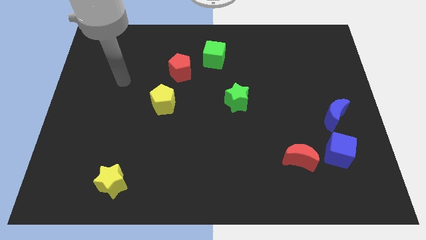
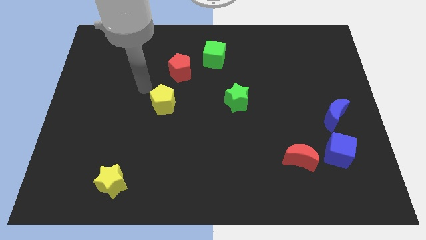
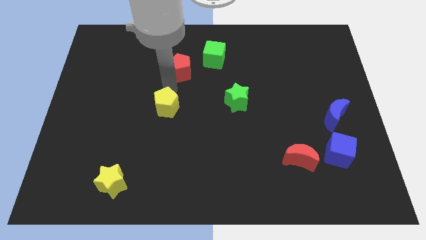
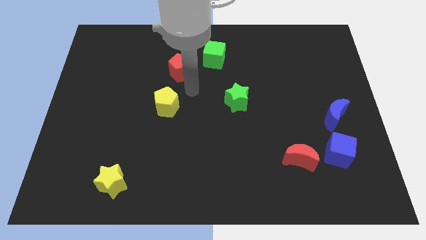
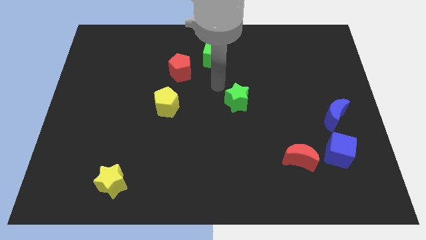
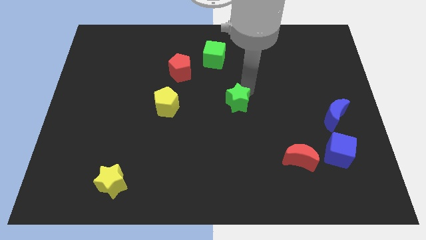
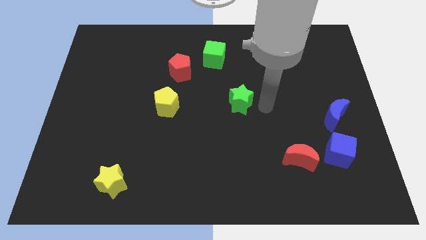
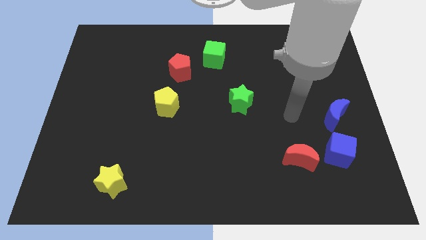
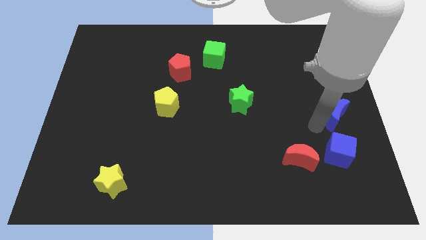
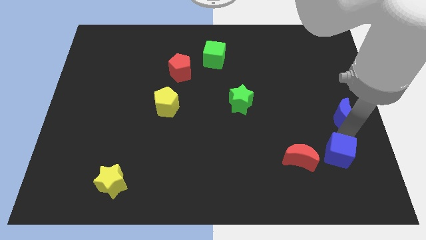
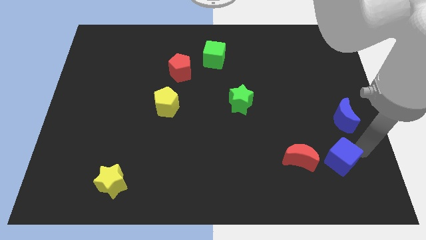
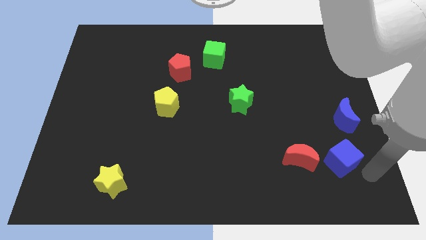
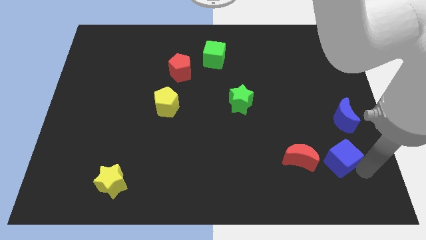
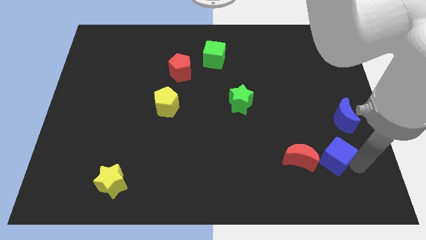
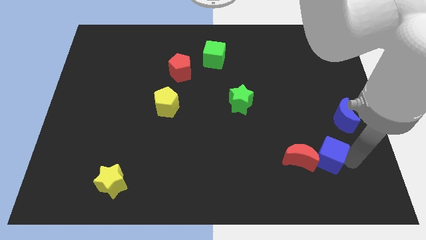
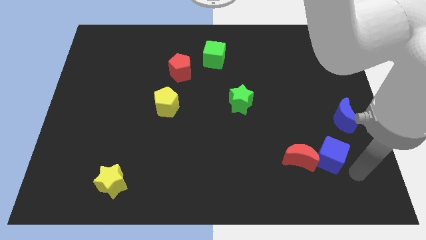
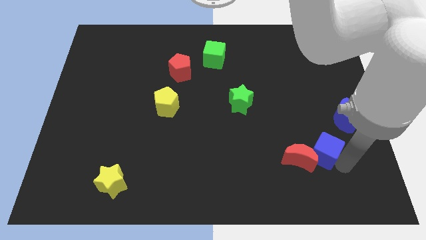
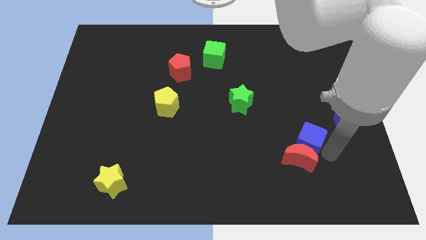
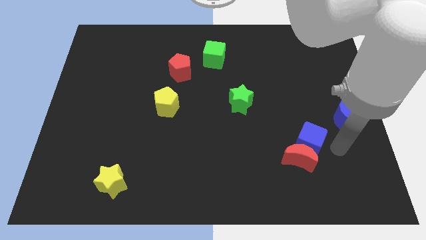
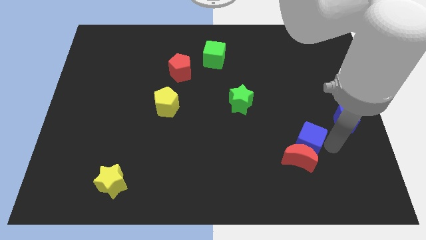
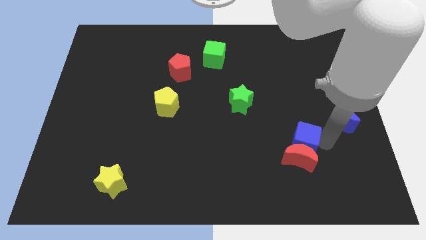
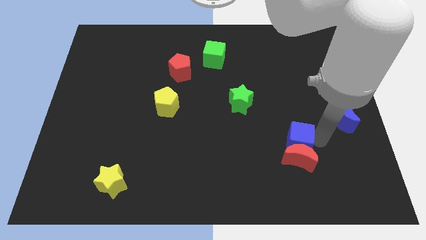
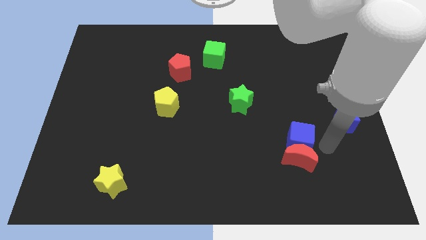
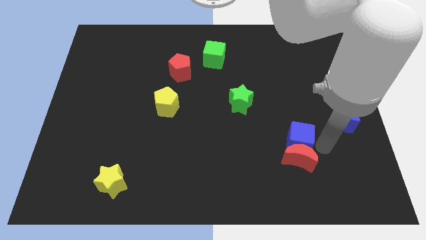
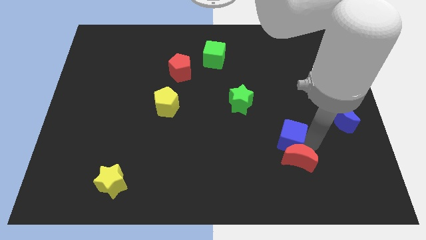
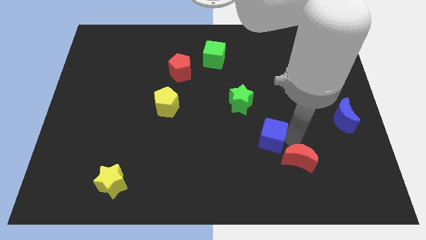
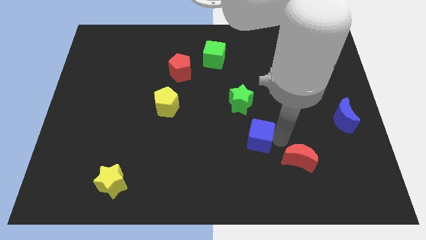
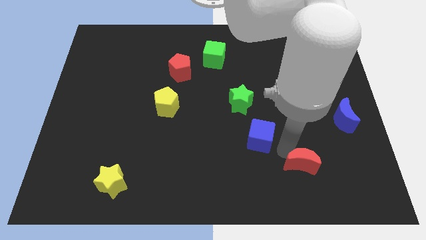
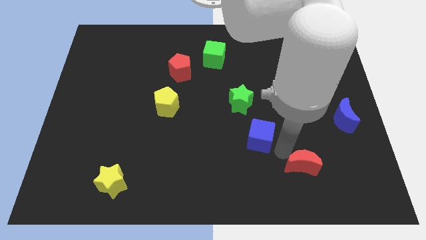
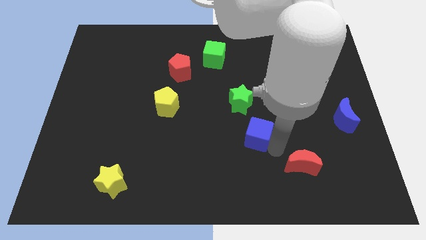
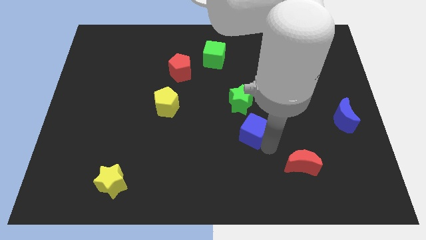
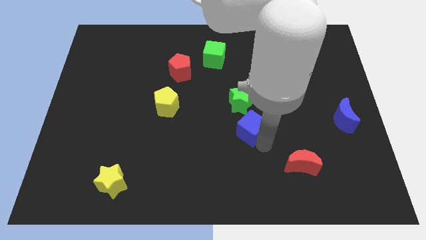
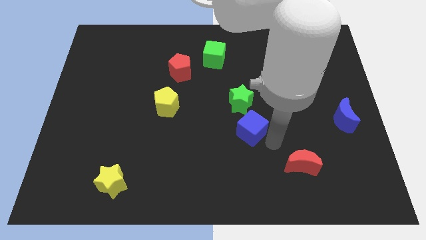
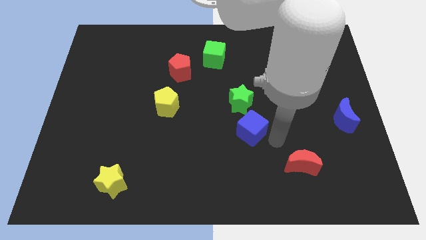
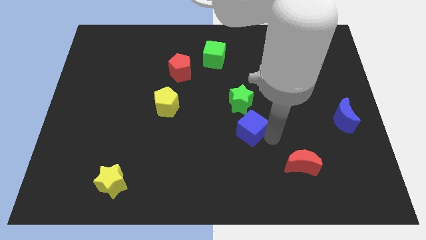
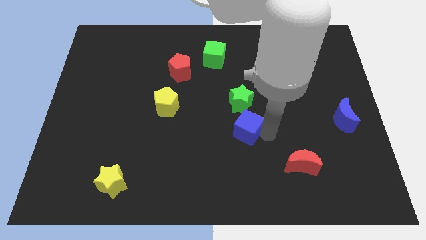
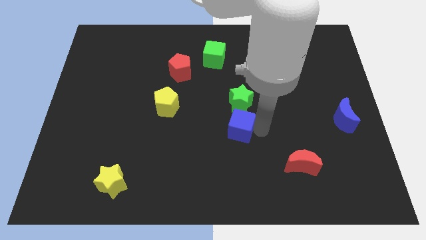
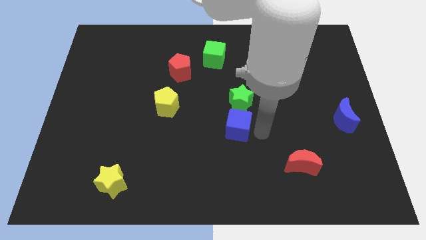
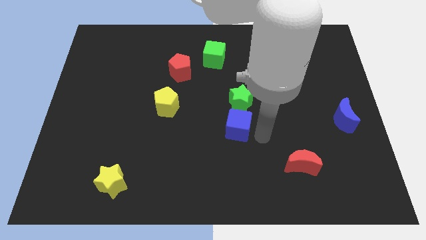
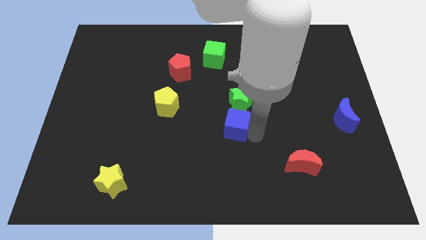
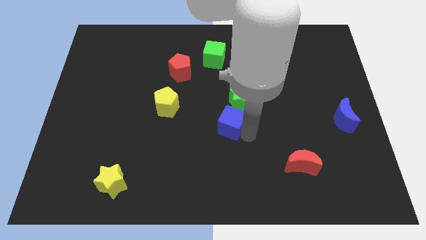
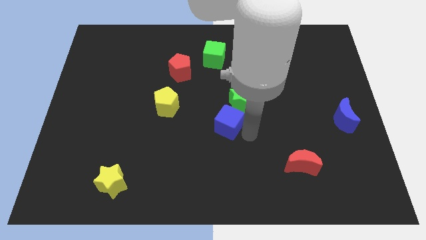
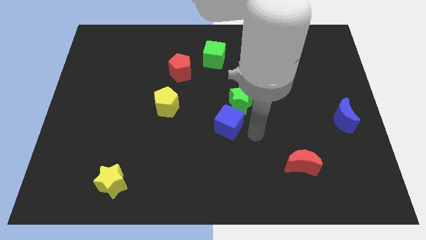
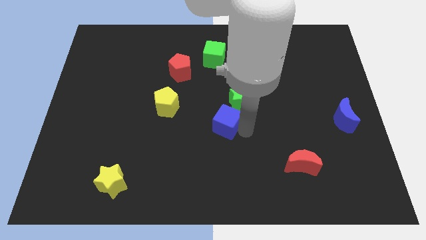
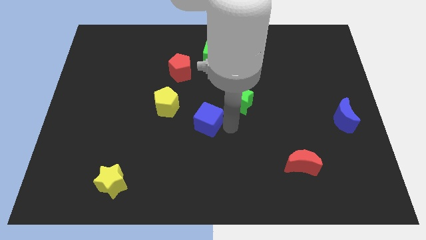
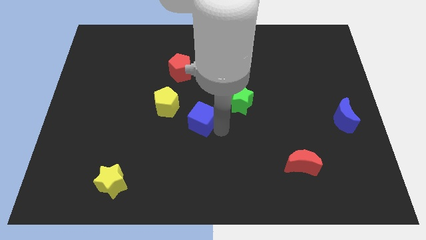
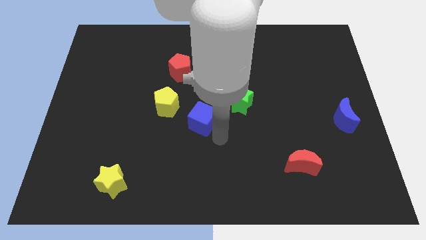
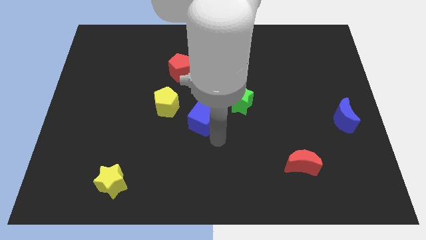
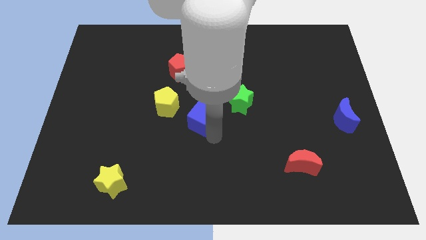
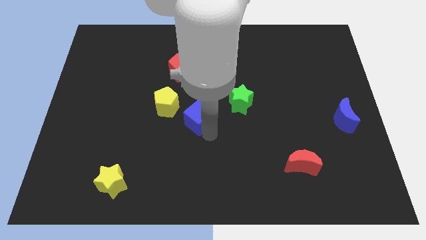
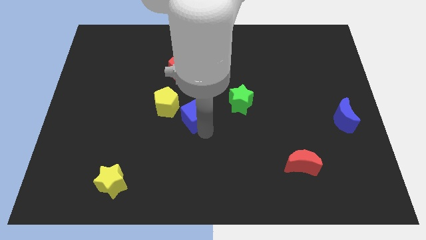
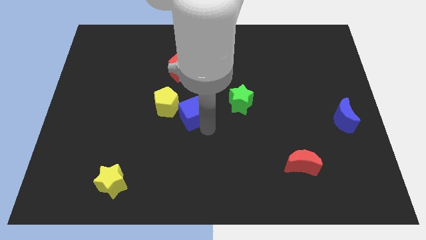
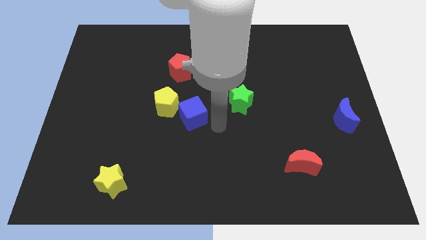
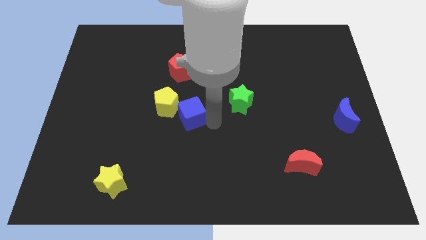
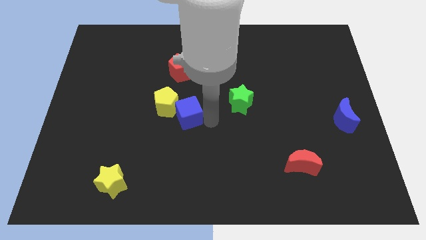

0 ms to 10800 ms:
move the blue cube close to the yellow pentagon

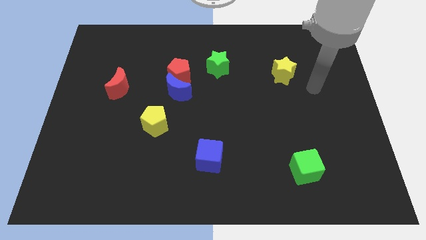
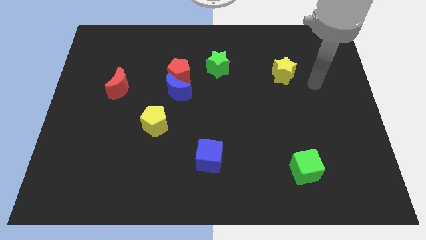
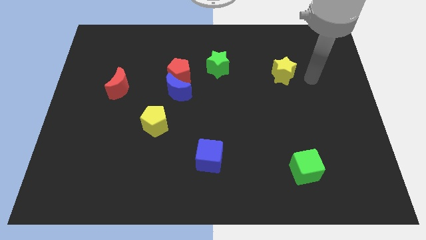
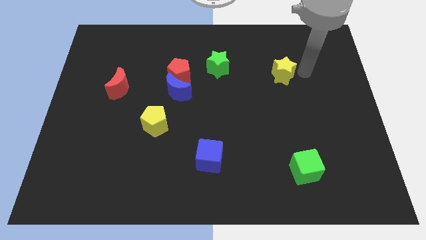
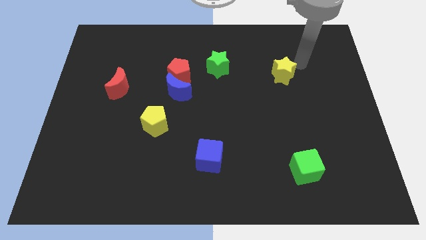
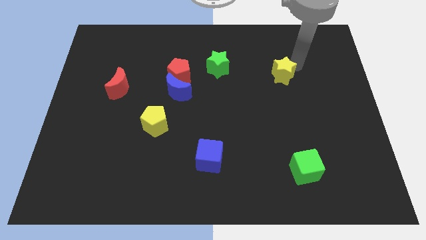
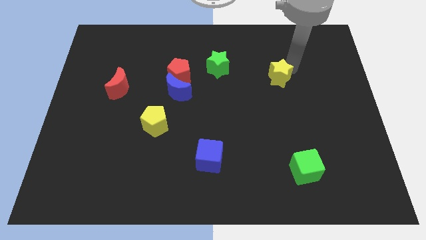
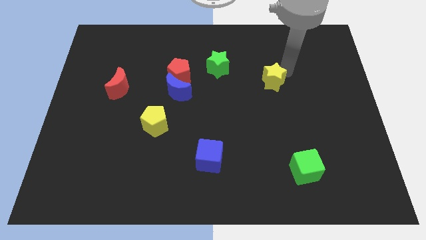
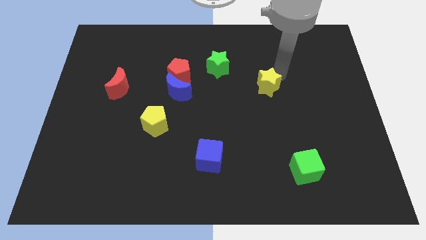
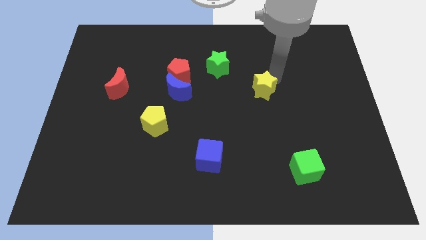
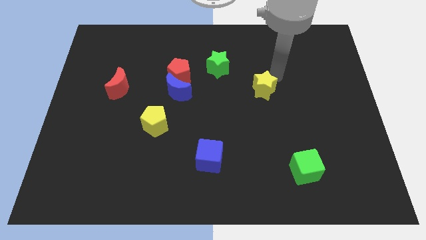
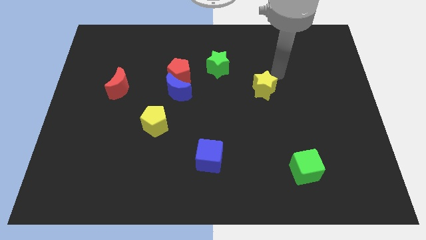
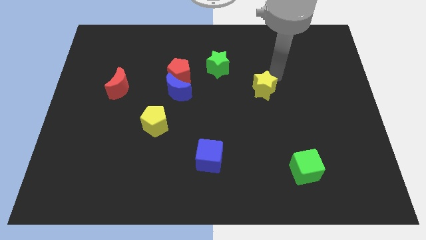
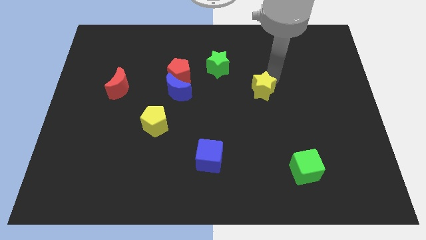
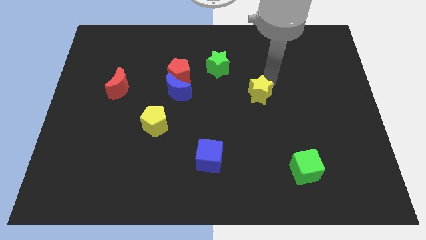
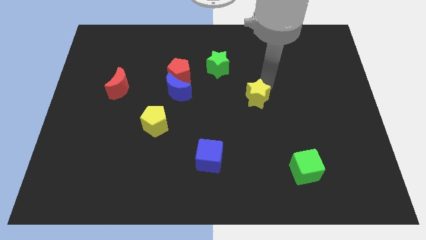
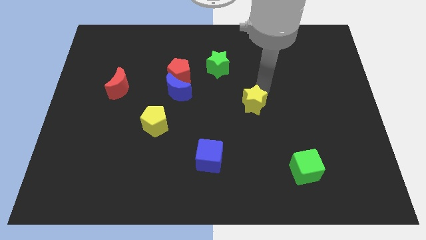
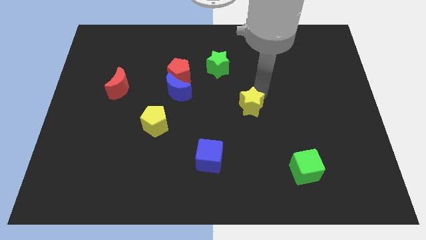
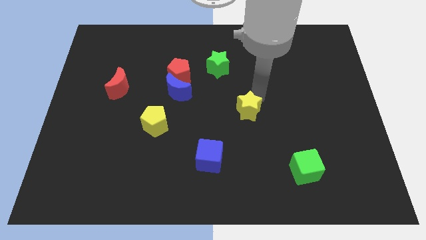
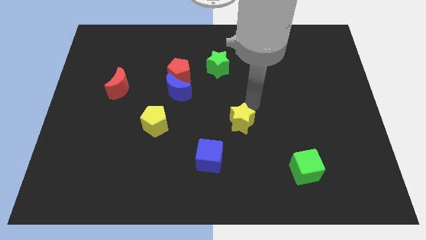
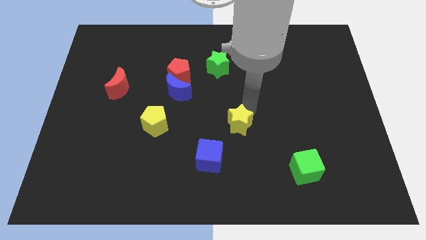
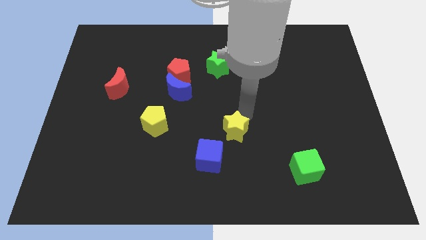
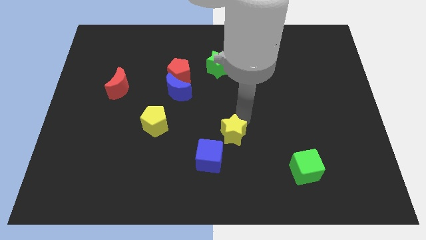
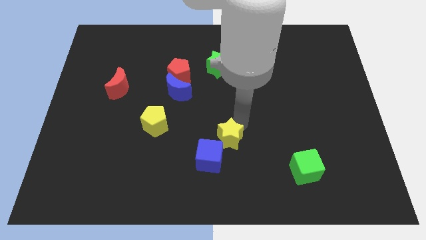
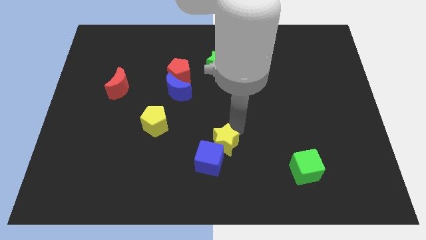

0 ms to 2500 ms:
put the yellow star to the blue cube
